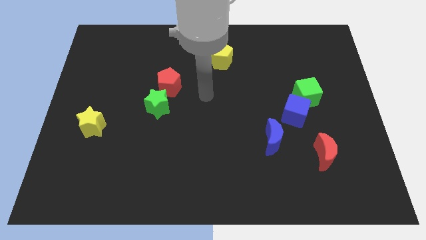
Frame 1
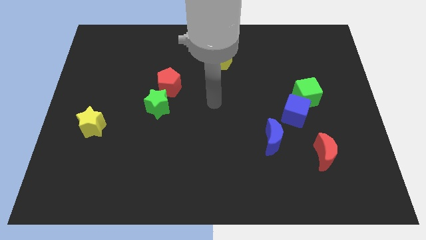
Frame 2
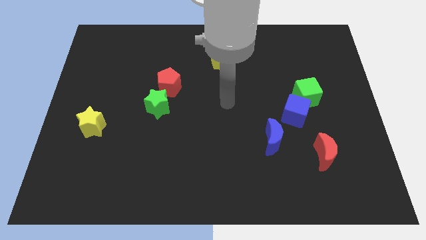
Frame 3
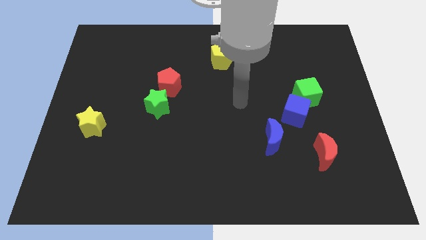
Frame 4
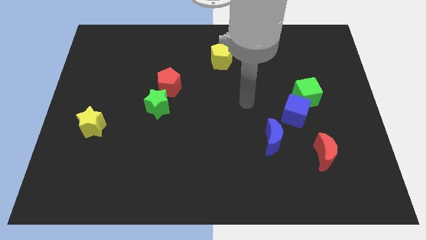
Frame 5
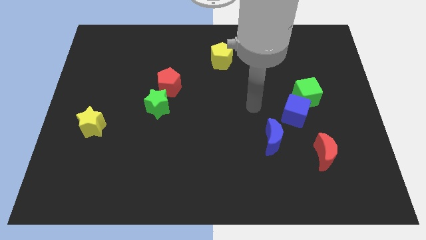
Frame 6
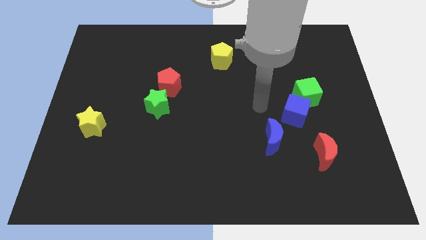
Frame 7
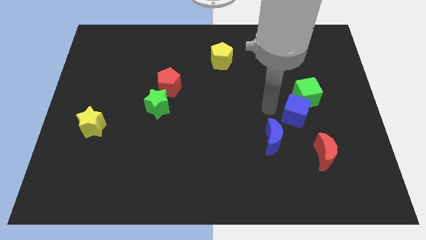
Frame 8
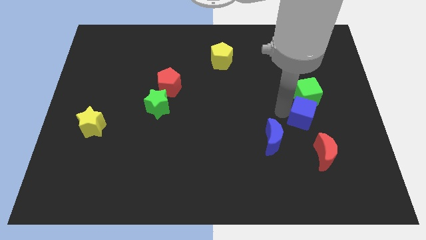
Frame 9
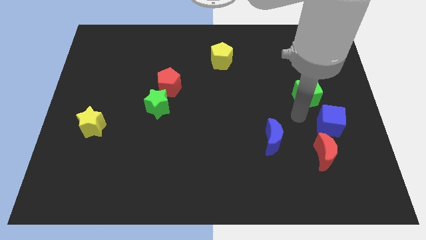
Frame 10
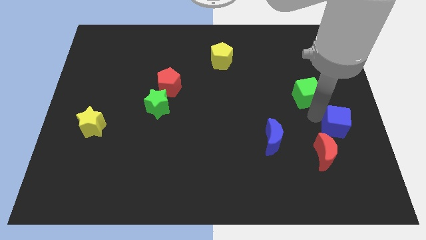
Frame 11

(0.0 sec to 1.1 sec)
pull the green cube apart from the blue cube

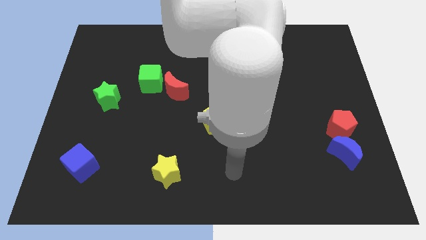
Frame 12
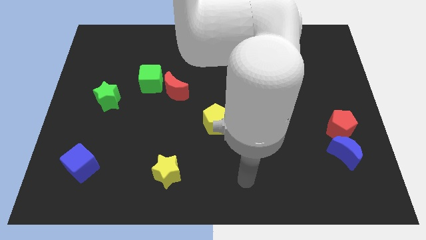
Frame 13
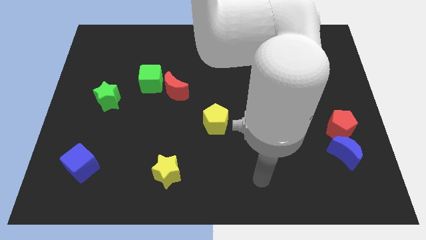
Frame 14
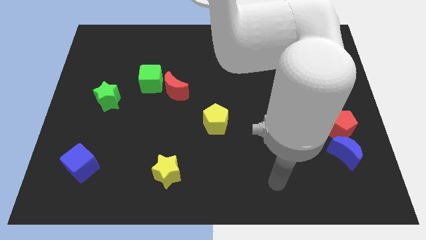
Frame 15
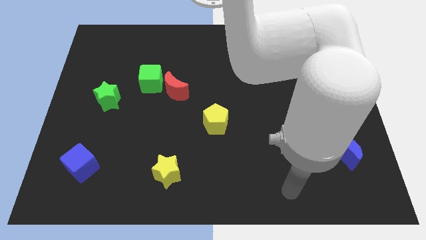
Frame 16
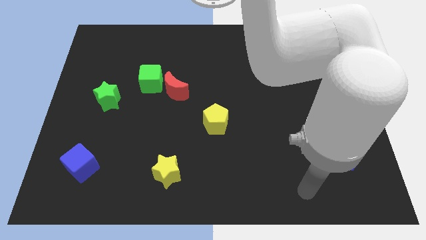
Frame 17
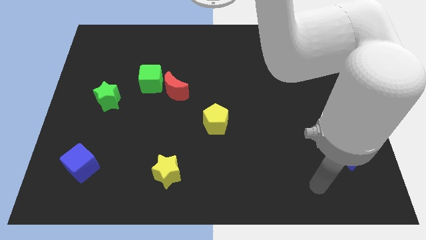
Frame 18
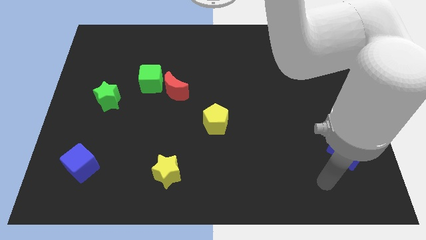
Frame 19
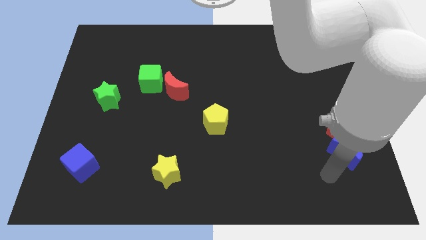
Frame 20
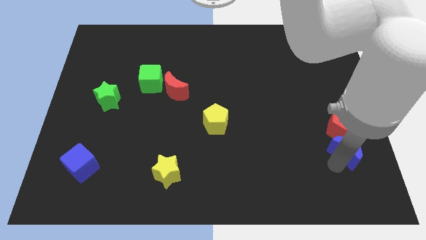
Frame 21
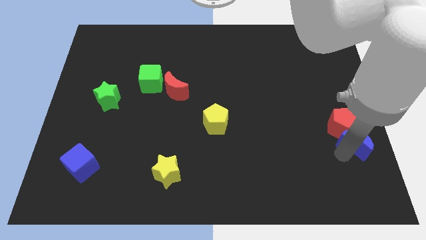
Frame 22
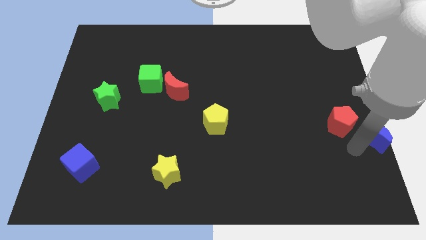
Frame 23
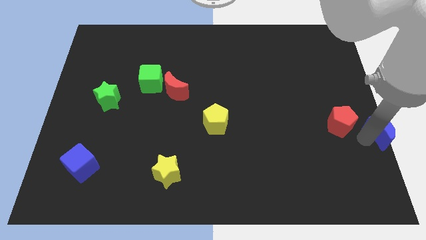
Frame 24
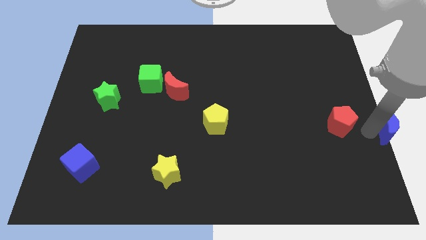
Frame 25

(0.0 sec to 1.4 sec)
separate the red pentagon from the blue moon

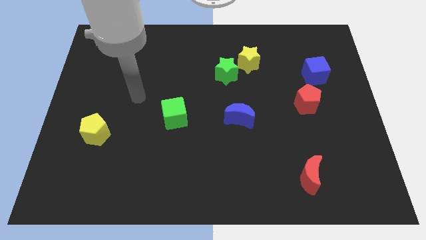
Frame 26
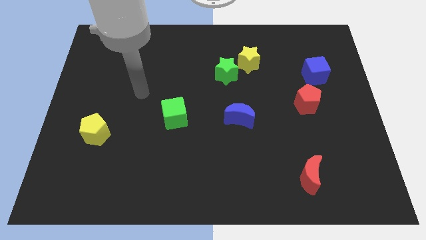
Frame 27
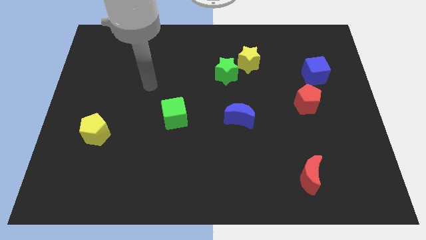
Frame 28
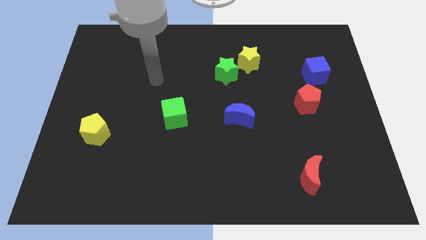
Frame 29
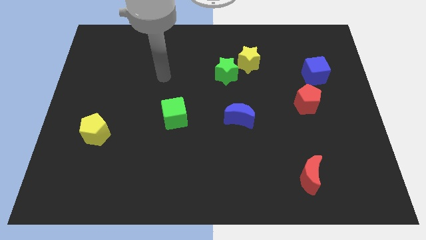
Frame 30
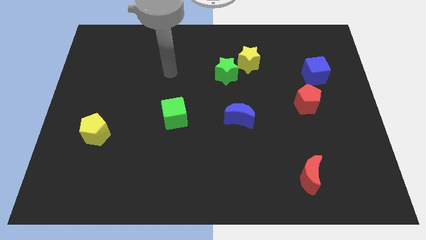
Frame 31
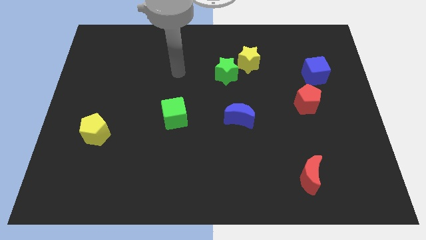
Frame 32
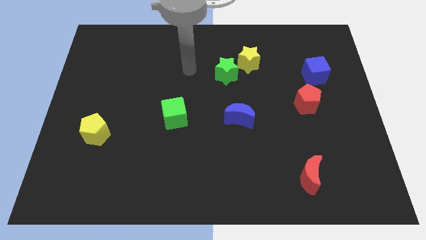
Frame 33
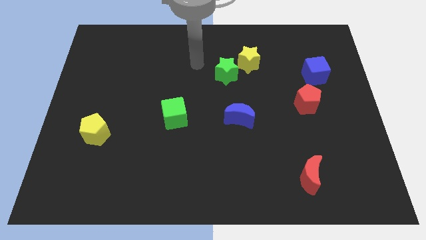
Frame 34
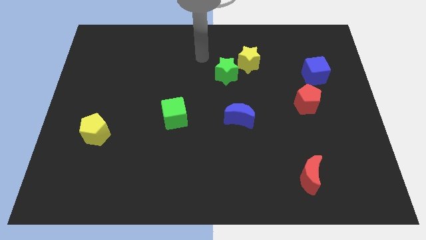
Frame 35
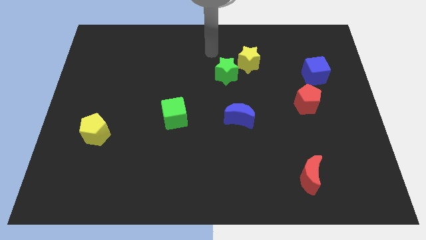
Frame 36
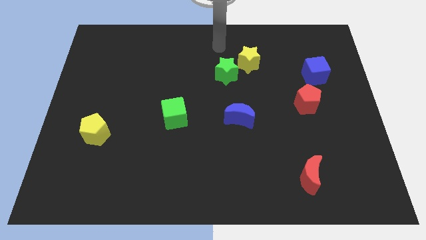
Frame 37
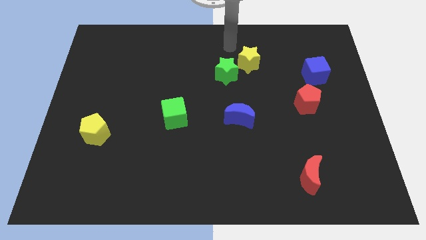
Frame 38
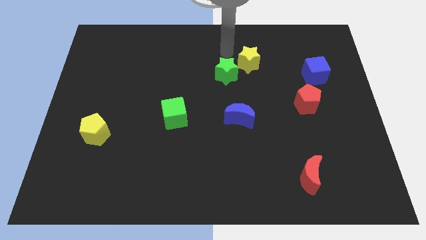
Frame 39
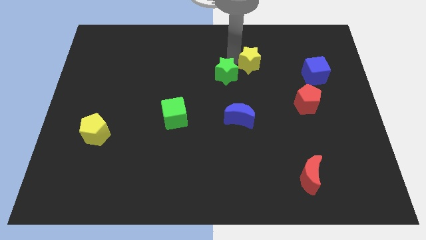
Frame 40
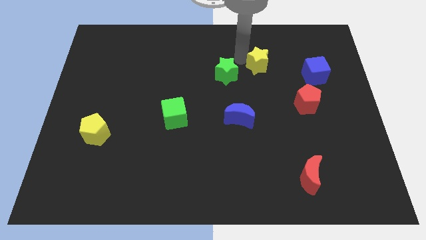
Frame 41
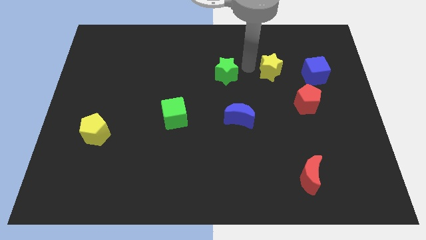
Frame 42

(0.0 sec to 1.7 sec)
pull the green star apart from the yellow star

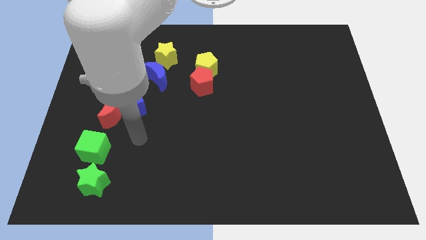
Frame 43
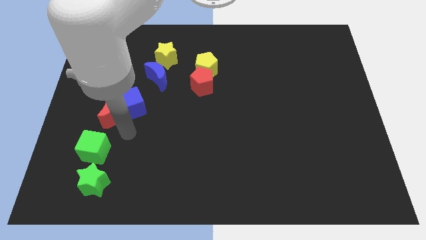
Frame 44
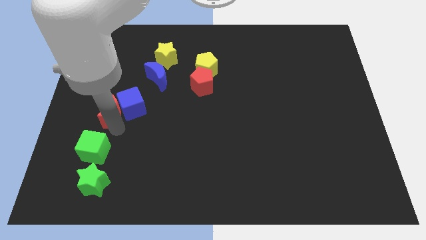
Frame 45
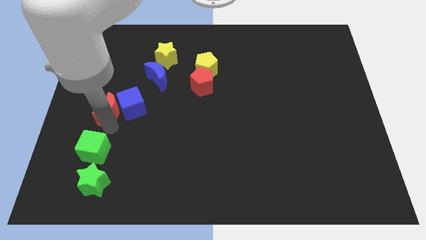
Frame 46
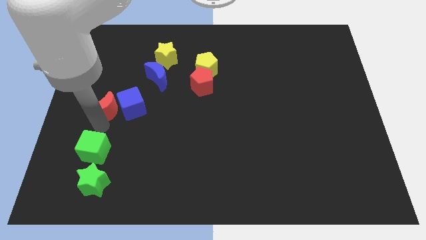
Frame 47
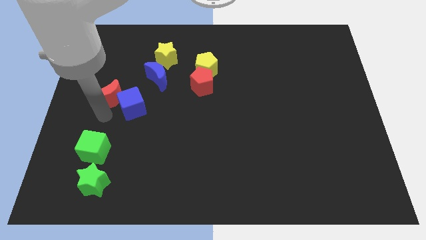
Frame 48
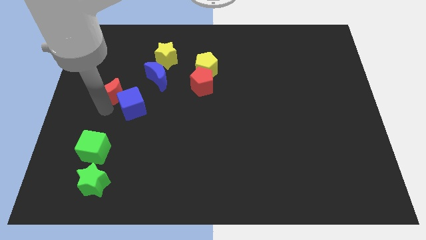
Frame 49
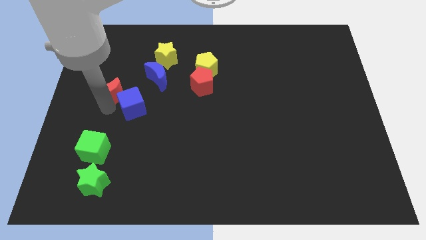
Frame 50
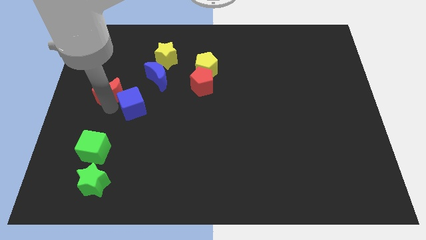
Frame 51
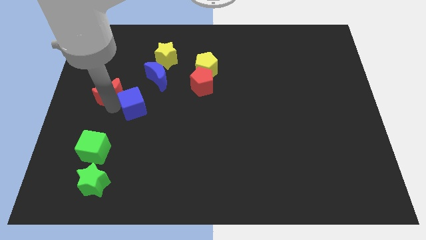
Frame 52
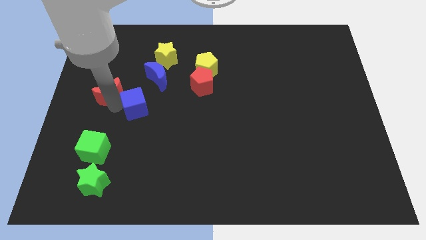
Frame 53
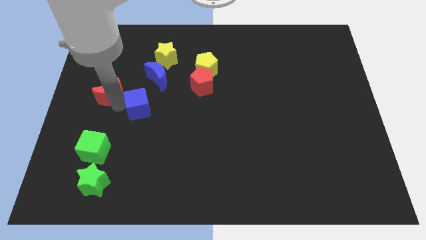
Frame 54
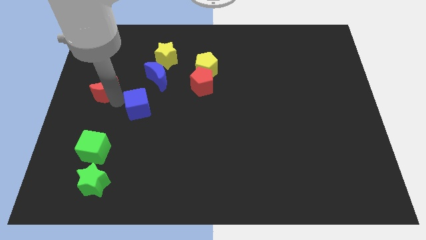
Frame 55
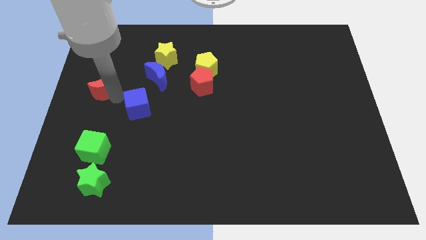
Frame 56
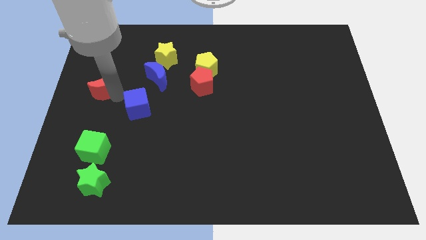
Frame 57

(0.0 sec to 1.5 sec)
separate the blue cube from the red moon

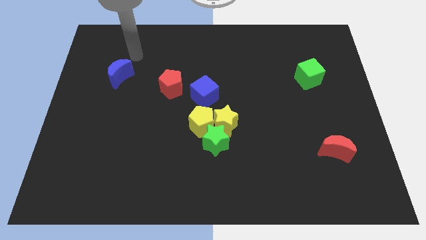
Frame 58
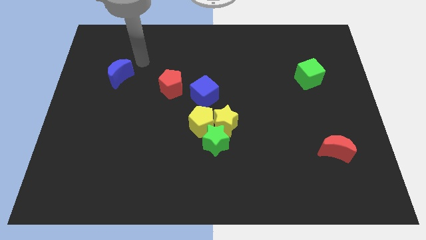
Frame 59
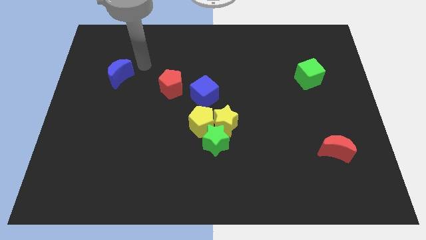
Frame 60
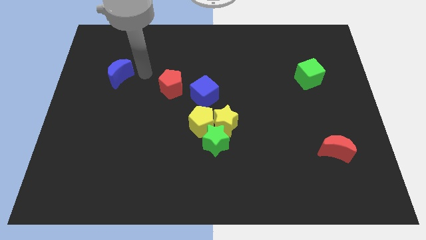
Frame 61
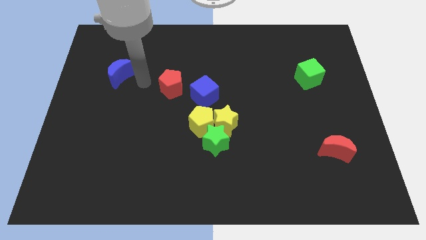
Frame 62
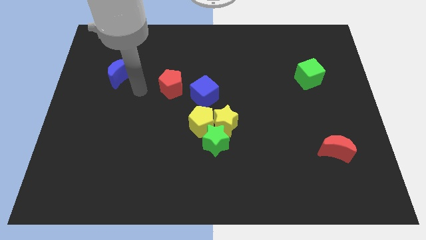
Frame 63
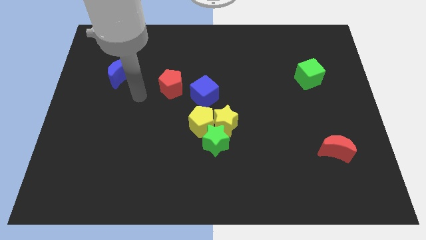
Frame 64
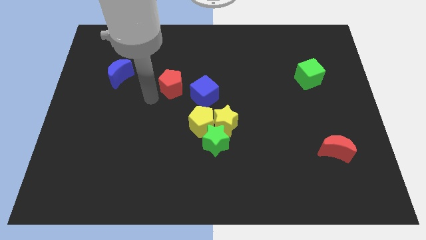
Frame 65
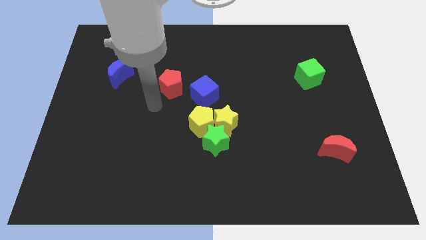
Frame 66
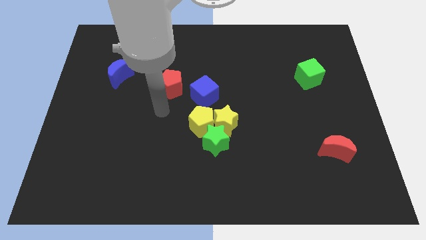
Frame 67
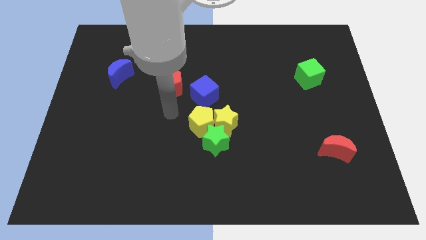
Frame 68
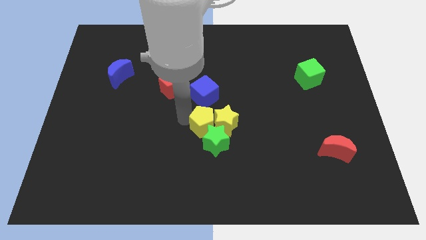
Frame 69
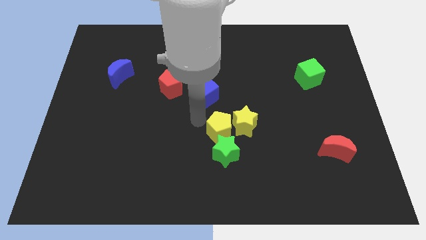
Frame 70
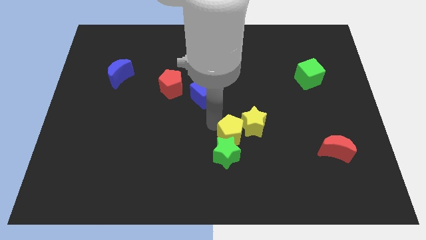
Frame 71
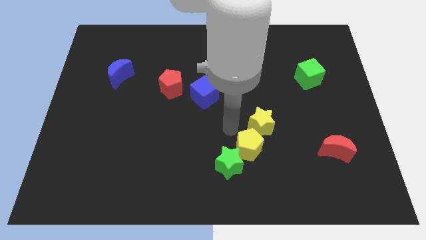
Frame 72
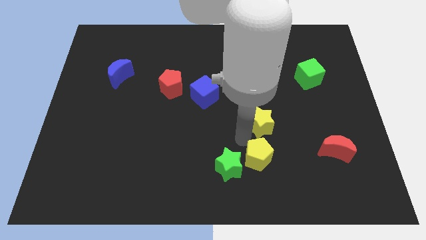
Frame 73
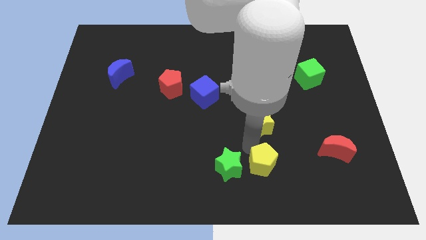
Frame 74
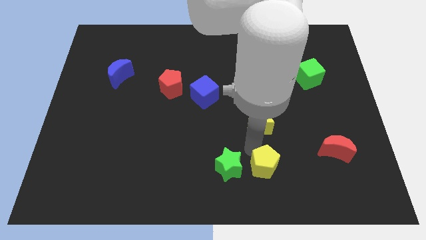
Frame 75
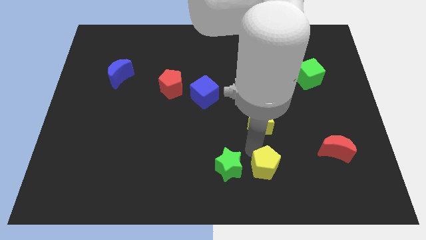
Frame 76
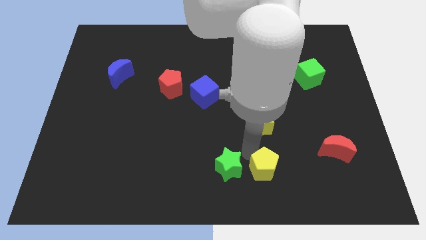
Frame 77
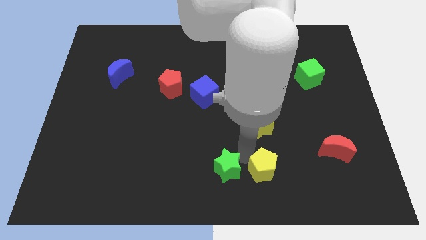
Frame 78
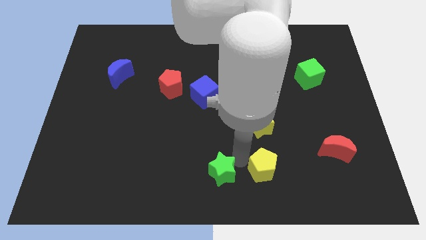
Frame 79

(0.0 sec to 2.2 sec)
move the green star away from the yellow star and yellow pentagon

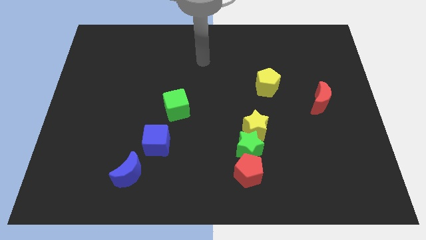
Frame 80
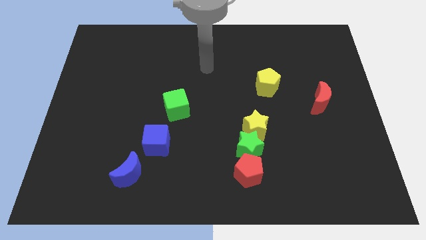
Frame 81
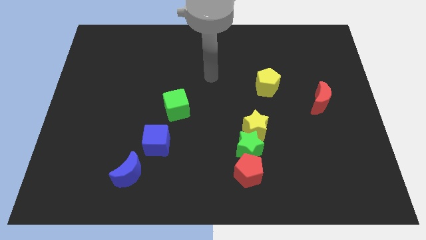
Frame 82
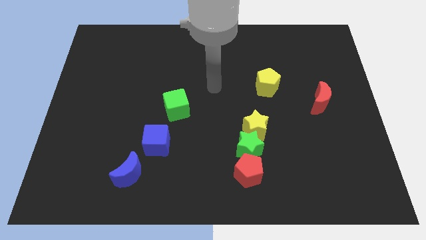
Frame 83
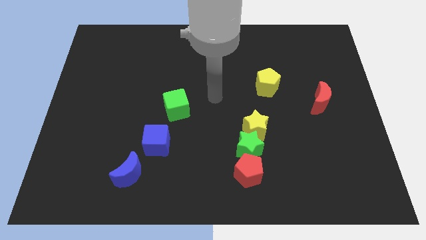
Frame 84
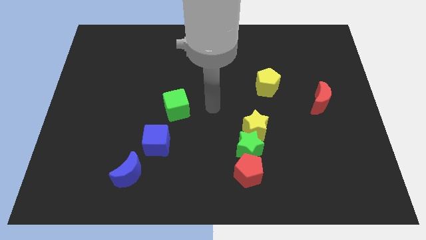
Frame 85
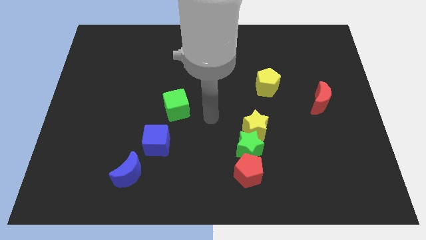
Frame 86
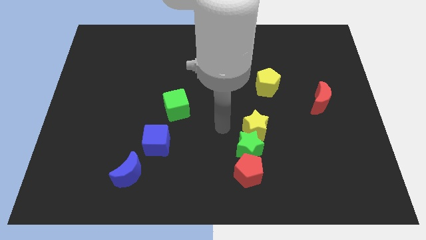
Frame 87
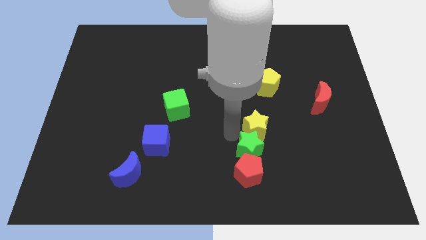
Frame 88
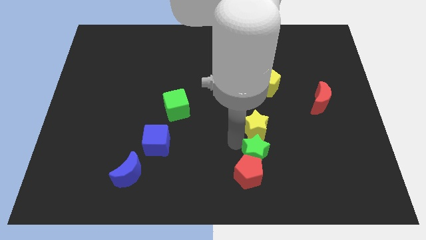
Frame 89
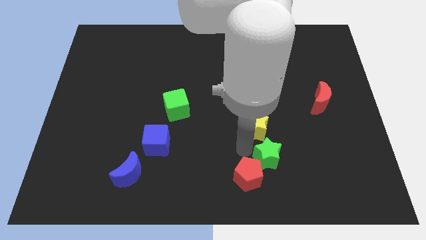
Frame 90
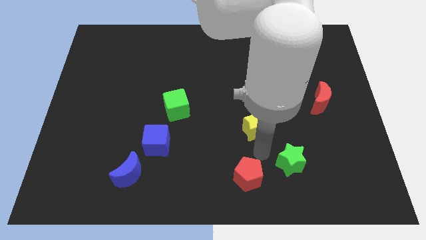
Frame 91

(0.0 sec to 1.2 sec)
separate the yellow star from the green star

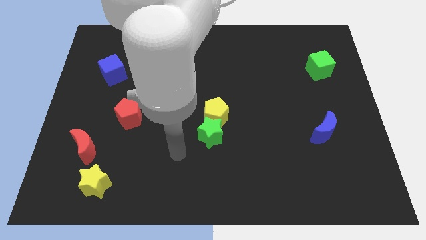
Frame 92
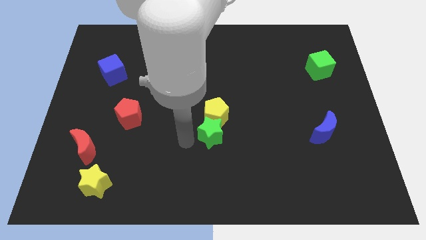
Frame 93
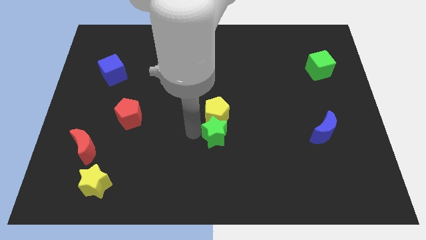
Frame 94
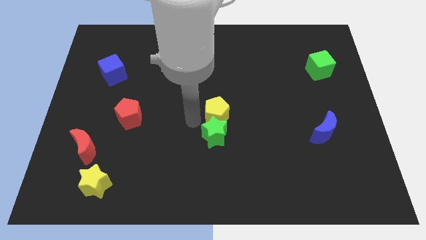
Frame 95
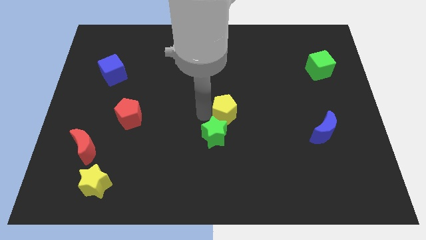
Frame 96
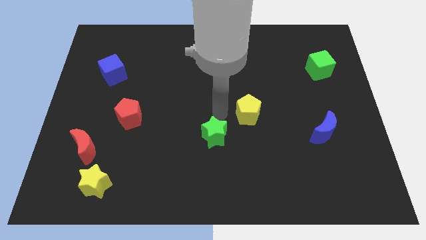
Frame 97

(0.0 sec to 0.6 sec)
pull the green star apart from the yellow pentagon
